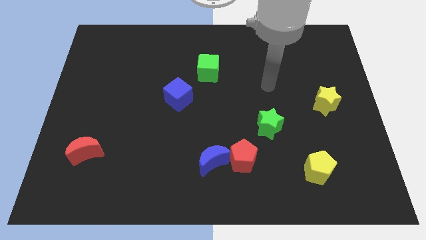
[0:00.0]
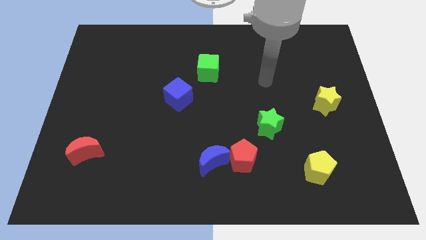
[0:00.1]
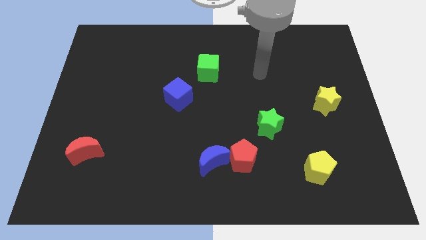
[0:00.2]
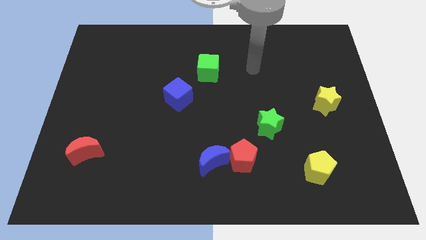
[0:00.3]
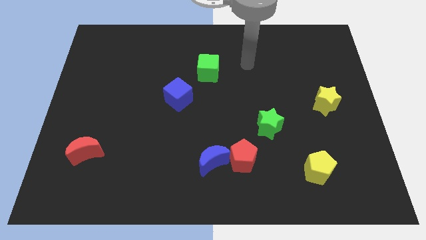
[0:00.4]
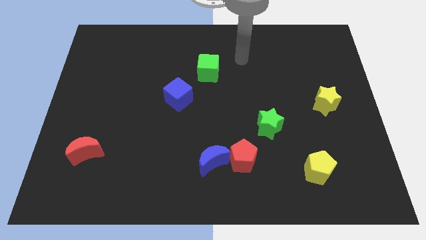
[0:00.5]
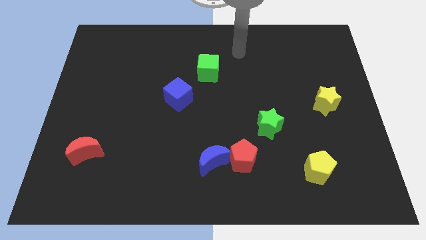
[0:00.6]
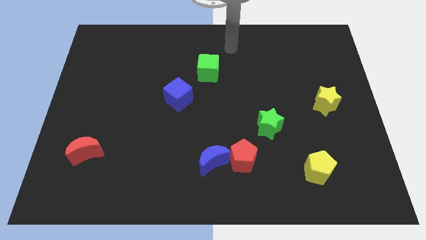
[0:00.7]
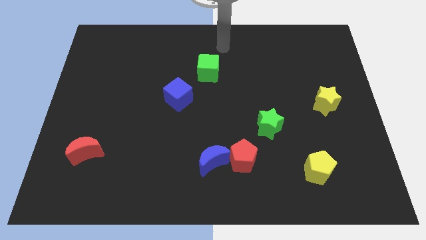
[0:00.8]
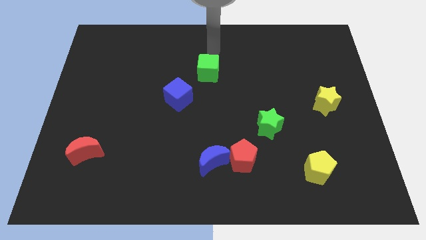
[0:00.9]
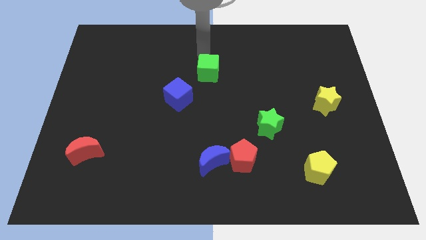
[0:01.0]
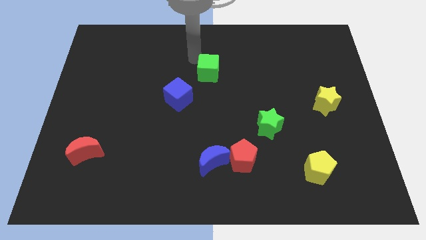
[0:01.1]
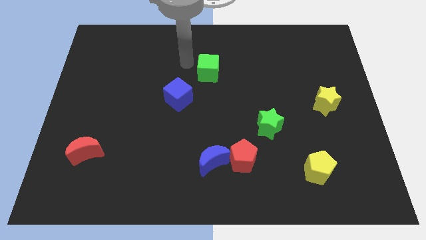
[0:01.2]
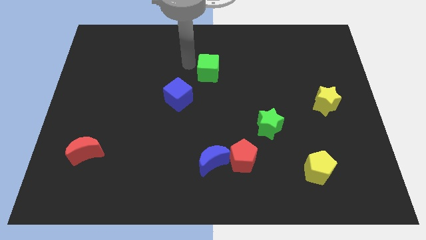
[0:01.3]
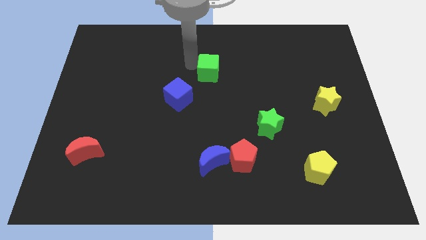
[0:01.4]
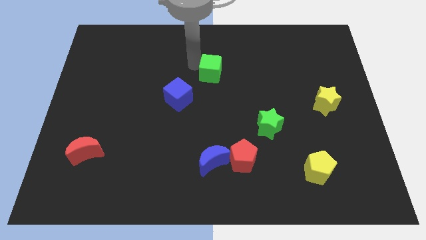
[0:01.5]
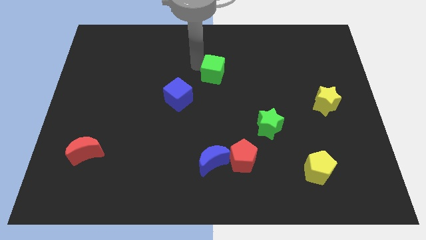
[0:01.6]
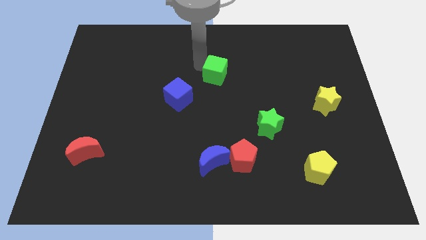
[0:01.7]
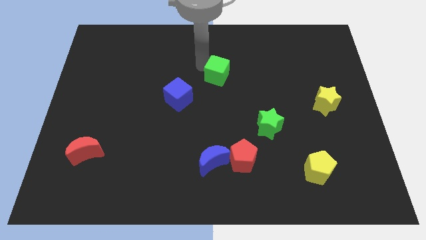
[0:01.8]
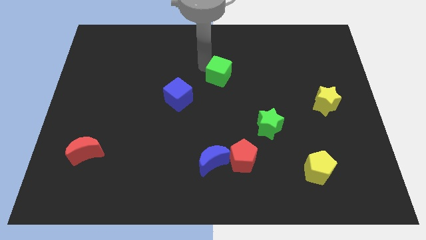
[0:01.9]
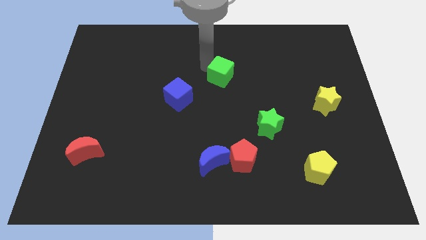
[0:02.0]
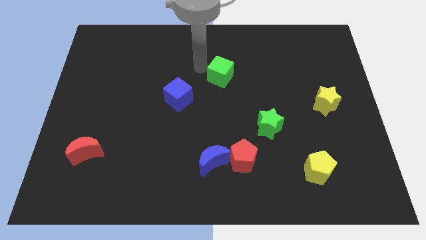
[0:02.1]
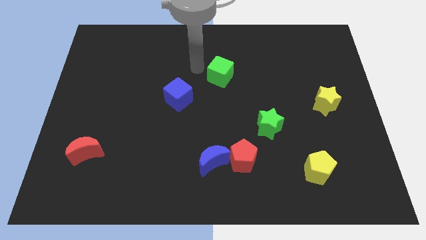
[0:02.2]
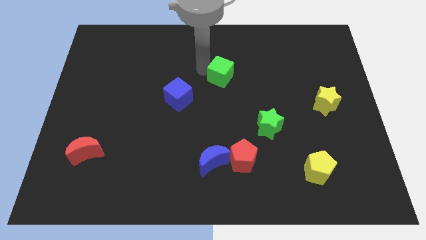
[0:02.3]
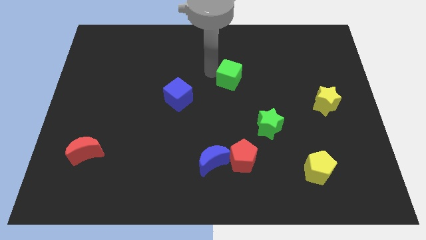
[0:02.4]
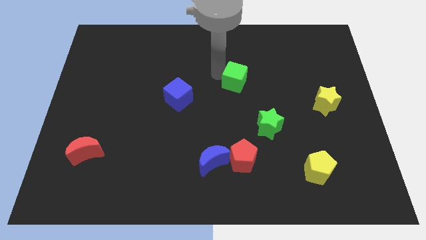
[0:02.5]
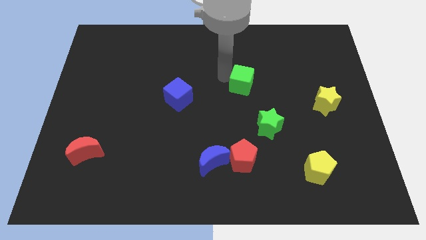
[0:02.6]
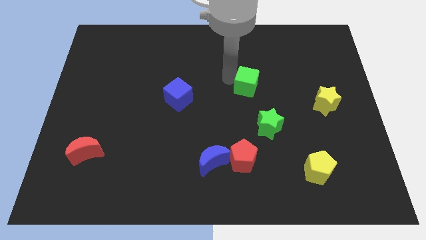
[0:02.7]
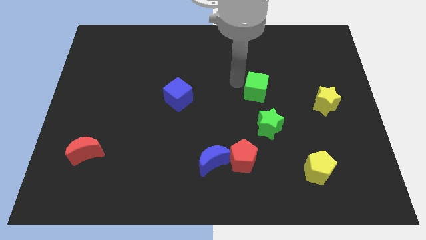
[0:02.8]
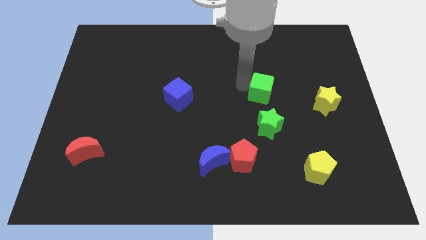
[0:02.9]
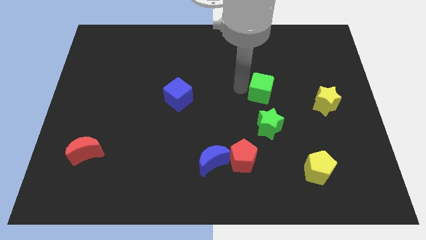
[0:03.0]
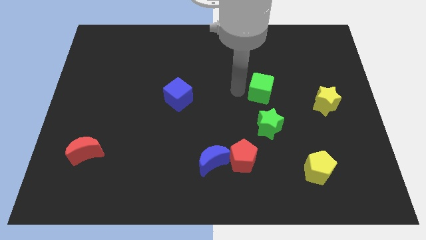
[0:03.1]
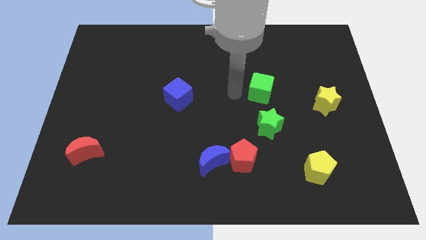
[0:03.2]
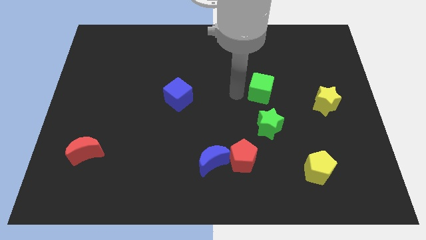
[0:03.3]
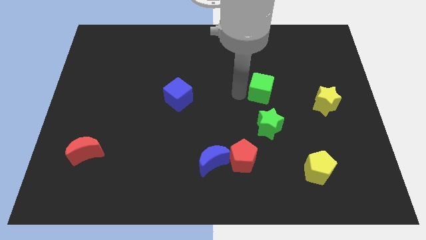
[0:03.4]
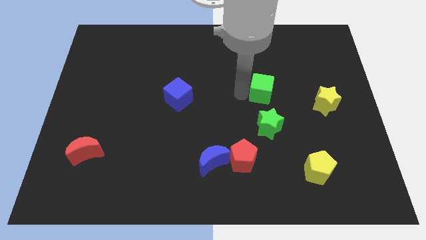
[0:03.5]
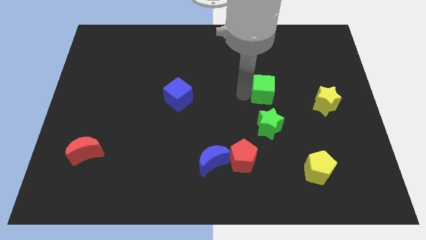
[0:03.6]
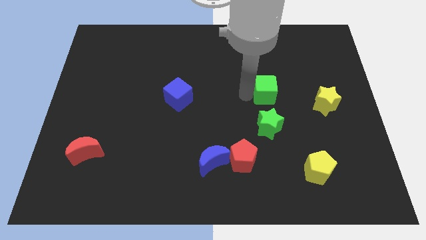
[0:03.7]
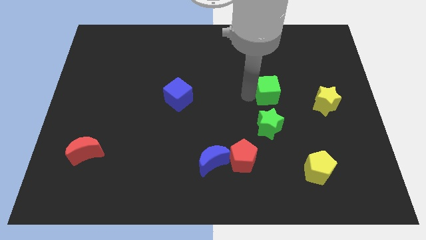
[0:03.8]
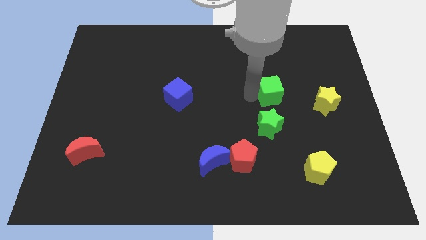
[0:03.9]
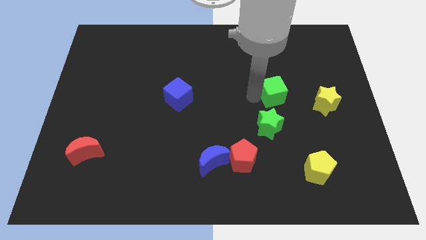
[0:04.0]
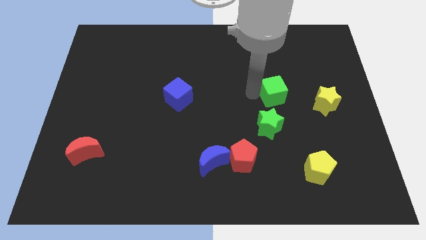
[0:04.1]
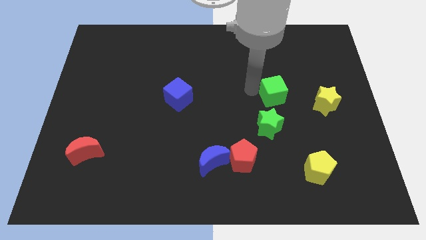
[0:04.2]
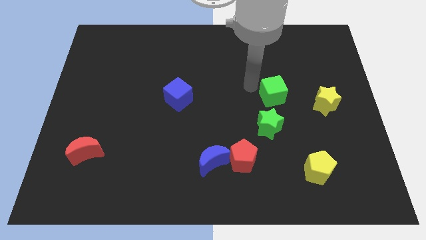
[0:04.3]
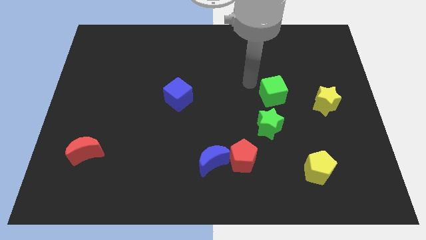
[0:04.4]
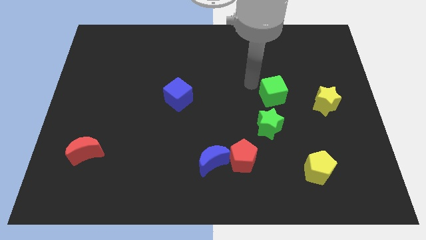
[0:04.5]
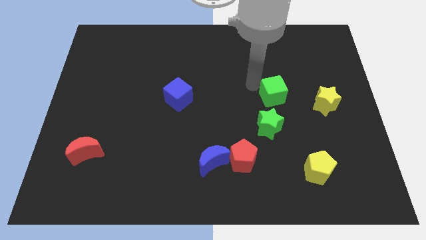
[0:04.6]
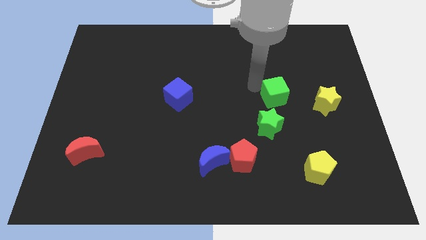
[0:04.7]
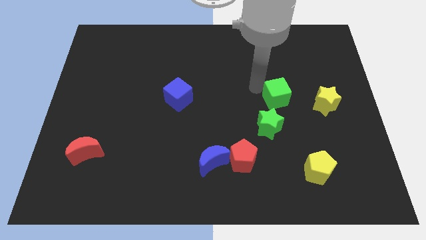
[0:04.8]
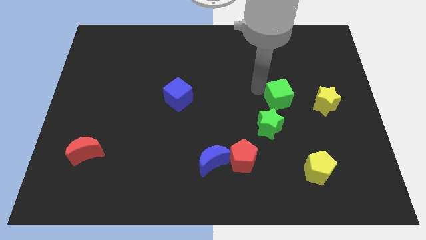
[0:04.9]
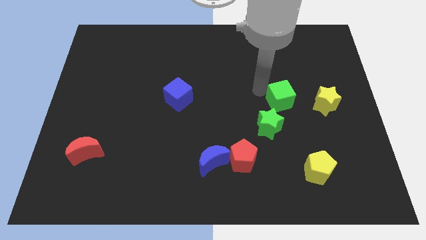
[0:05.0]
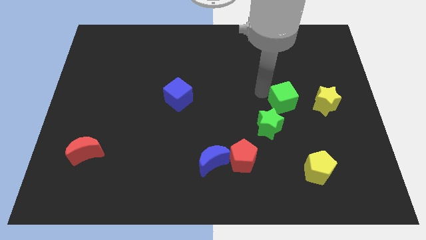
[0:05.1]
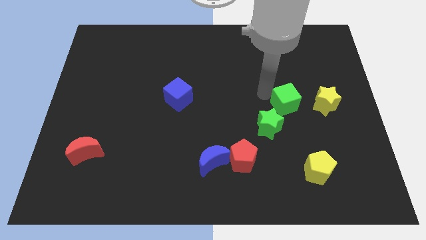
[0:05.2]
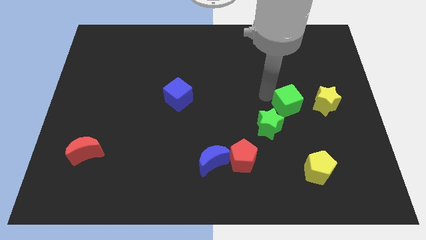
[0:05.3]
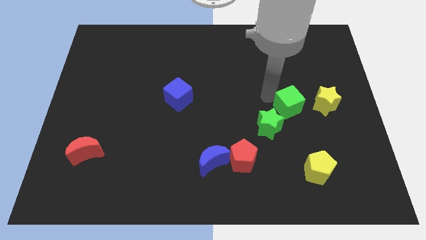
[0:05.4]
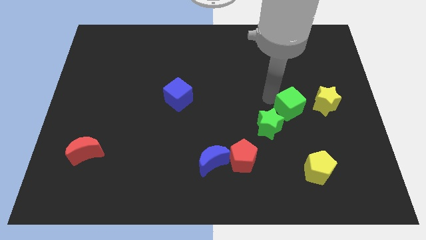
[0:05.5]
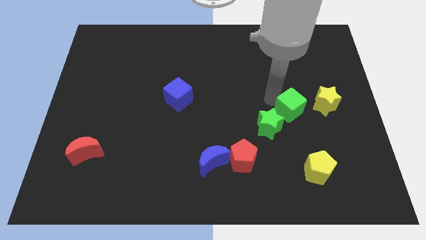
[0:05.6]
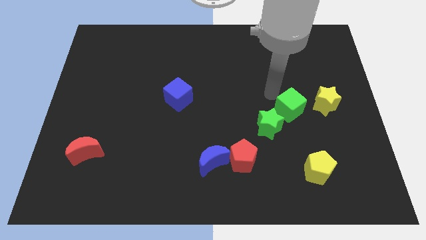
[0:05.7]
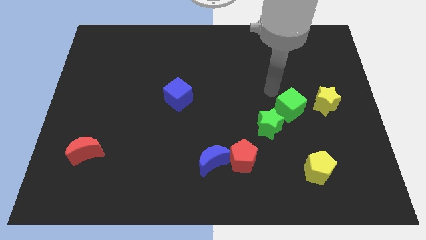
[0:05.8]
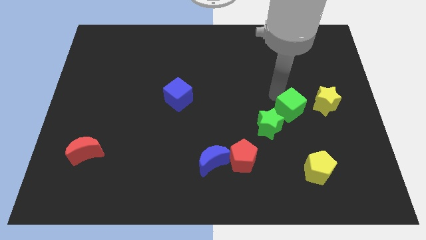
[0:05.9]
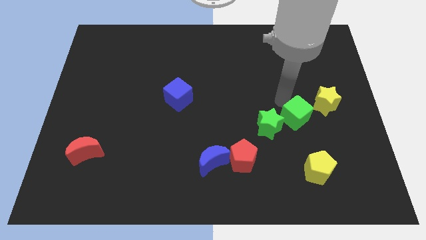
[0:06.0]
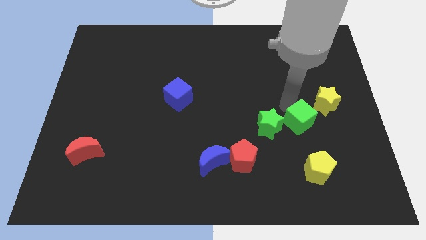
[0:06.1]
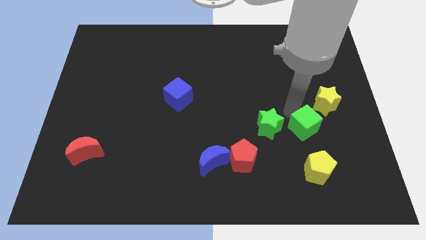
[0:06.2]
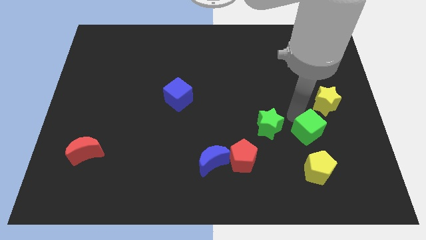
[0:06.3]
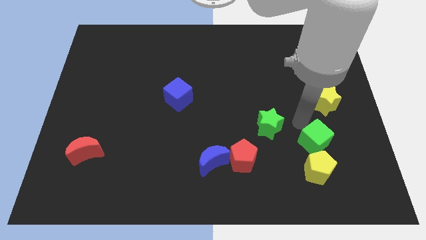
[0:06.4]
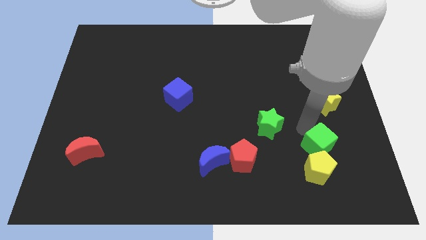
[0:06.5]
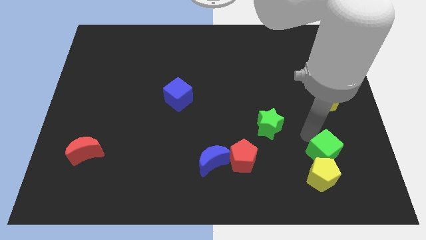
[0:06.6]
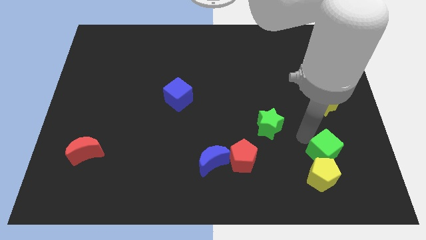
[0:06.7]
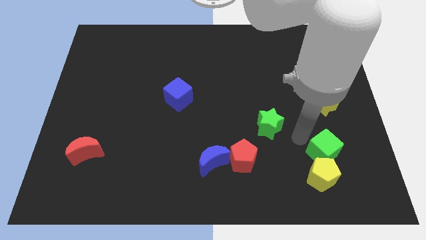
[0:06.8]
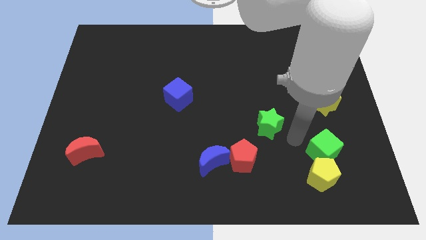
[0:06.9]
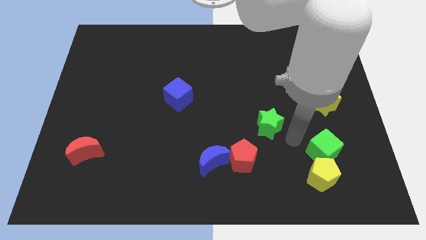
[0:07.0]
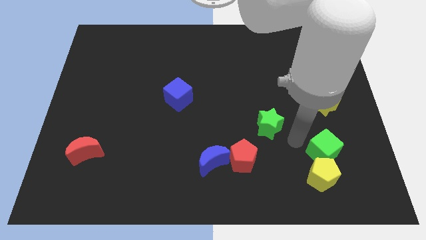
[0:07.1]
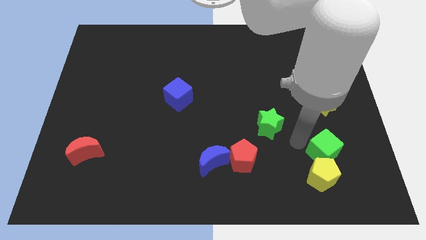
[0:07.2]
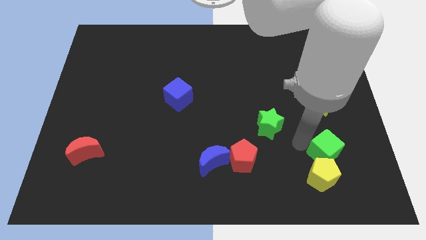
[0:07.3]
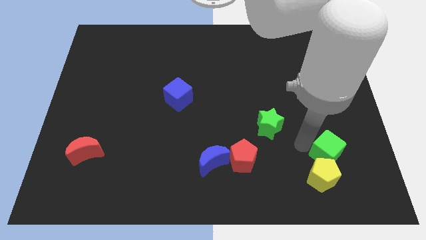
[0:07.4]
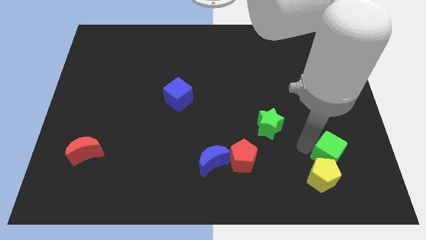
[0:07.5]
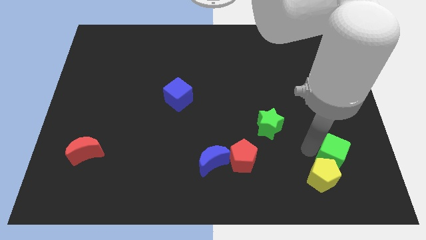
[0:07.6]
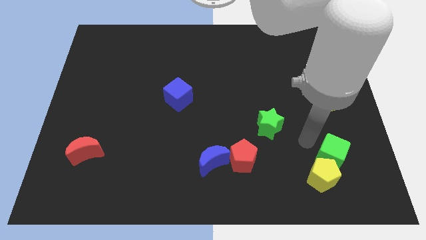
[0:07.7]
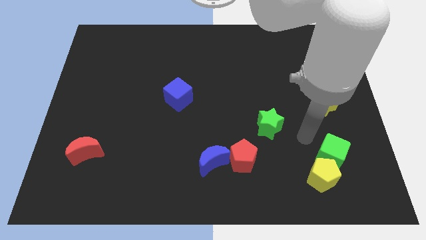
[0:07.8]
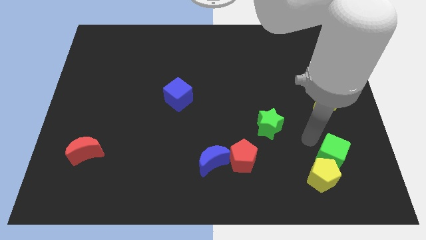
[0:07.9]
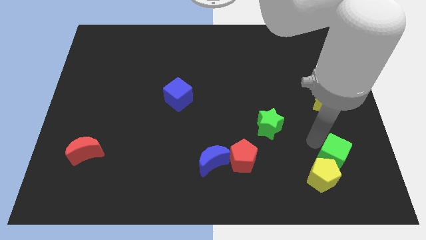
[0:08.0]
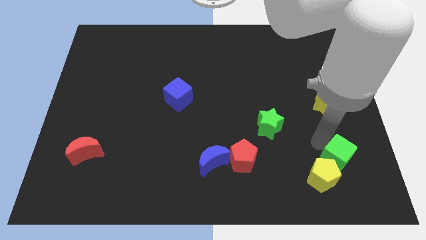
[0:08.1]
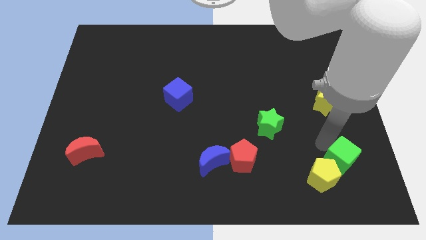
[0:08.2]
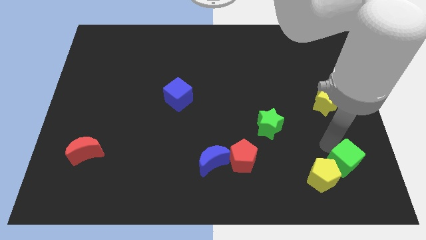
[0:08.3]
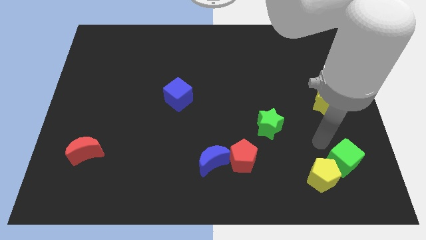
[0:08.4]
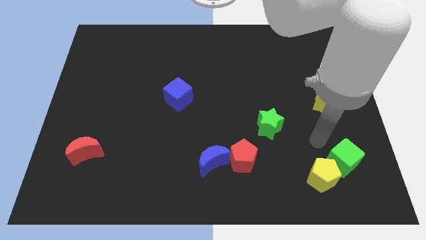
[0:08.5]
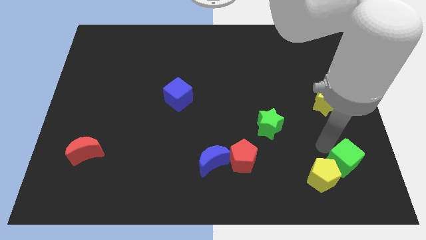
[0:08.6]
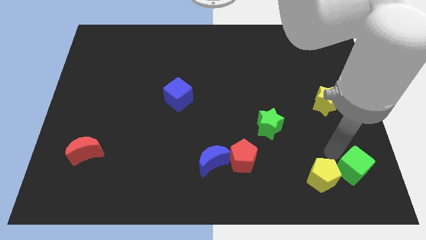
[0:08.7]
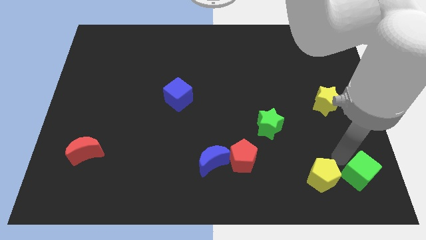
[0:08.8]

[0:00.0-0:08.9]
push the green cube to the bottom right
